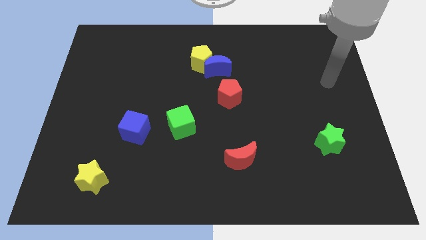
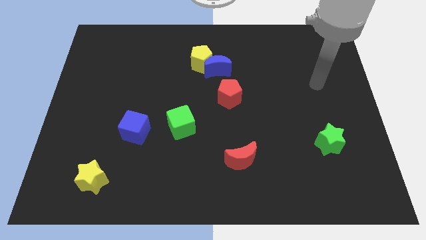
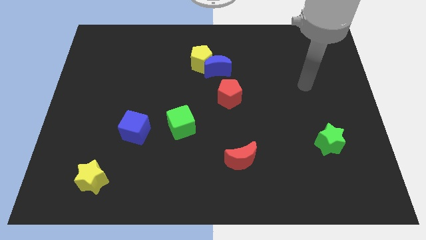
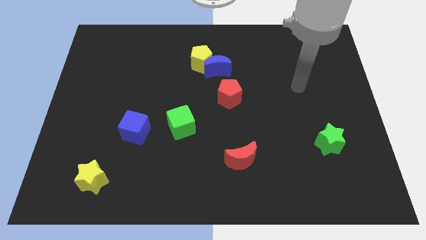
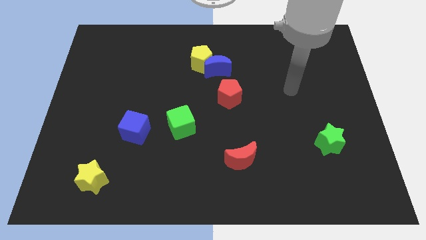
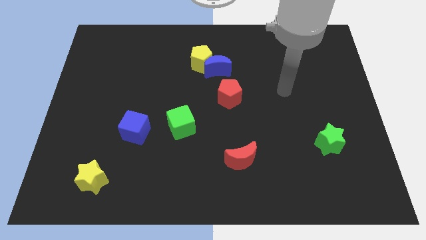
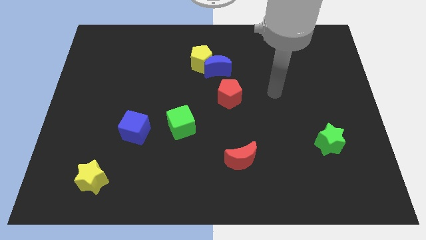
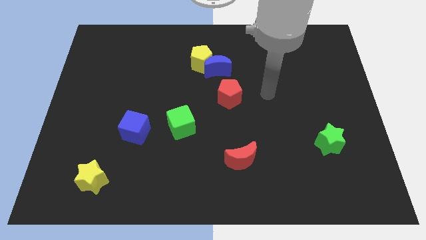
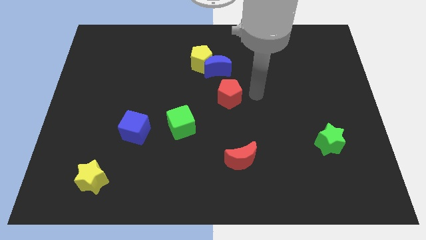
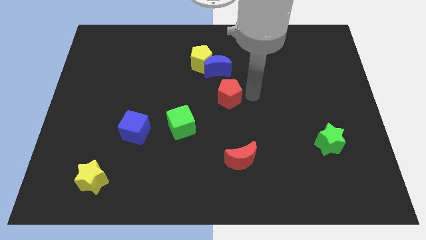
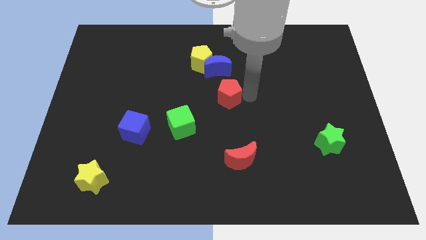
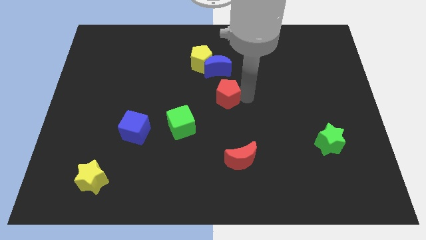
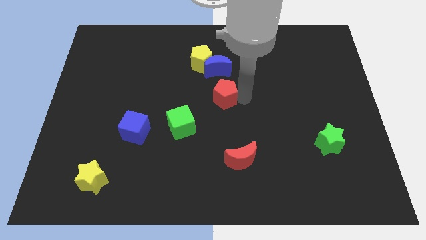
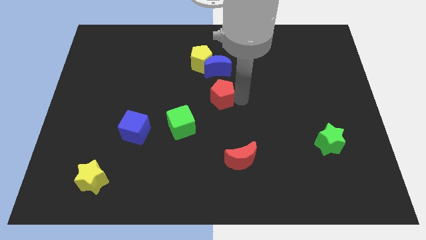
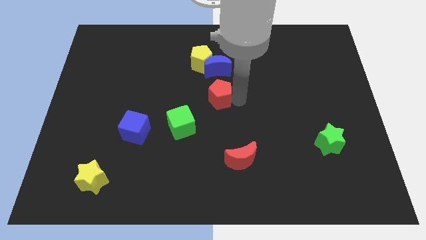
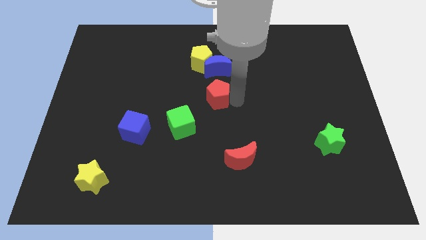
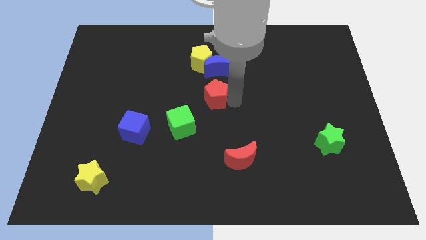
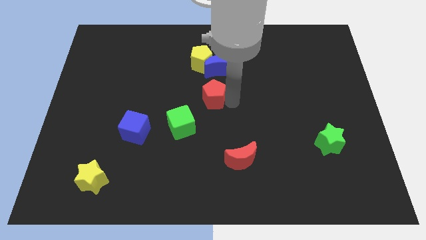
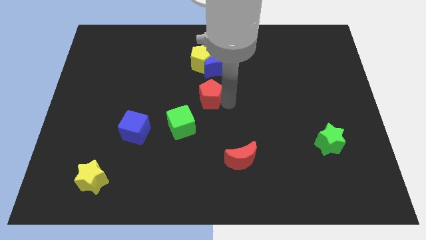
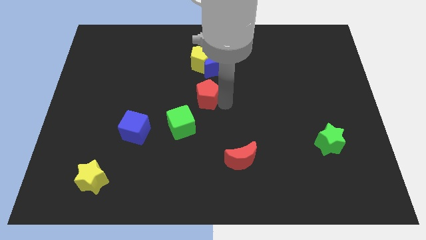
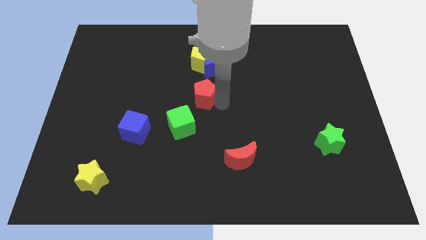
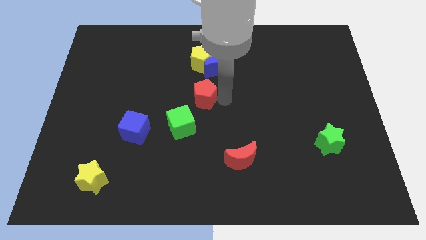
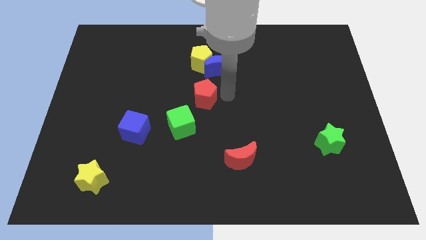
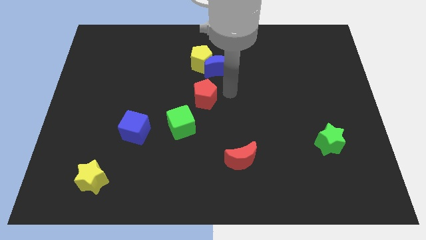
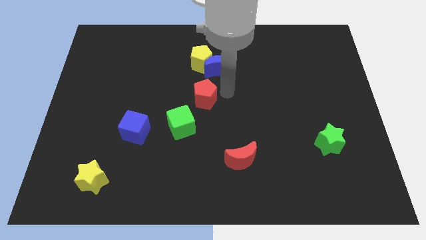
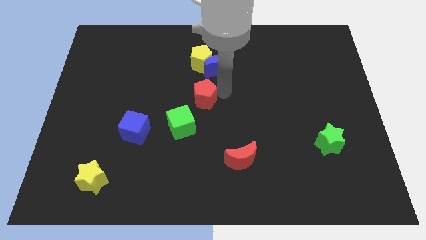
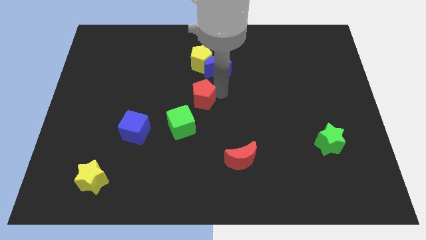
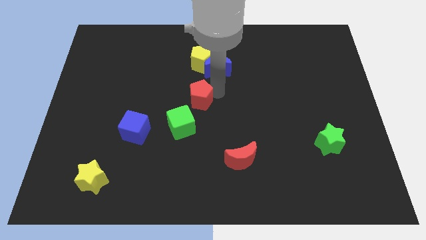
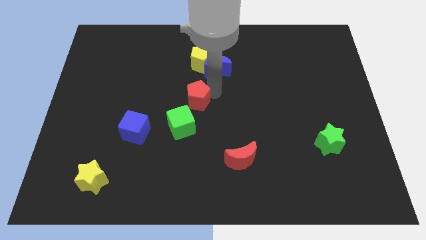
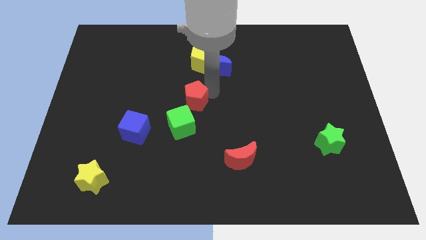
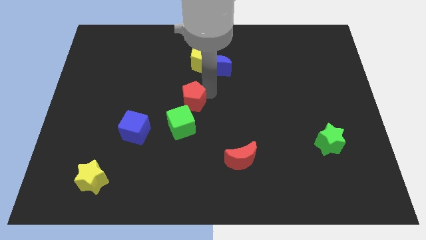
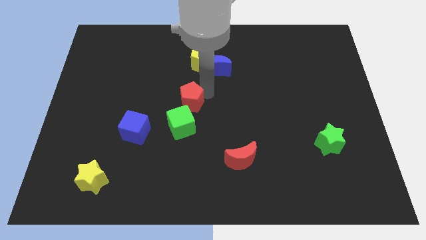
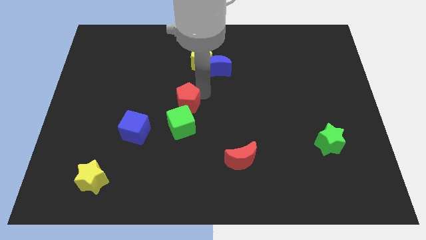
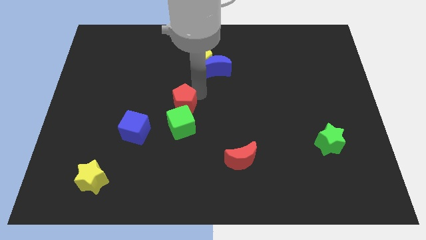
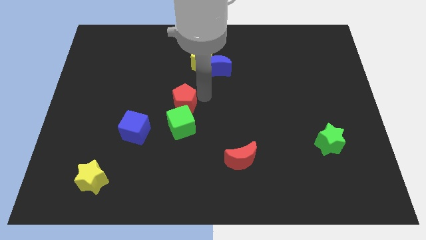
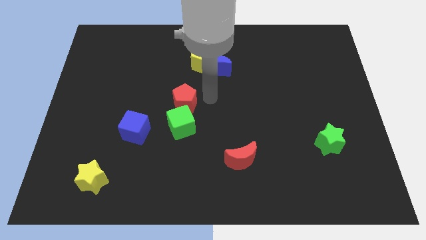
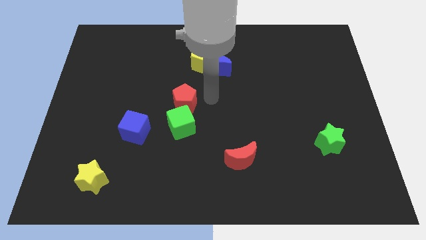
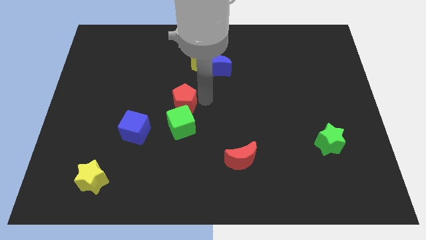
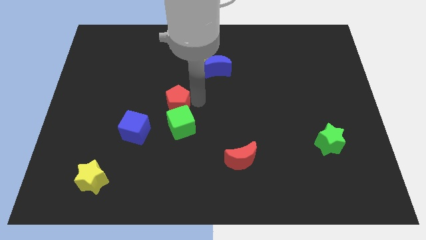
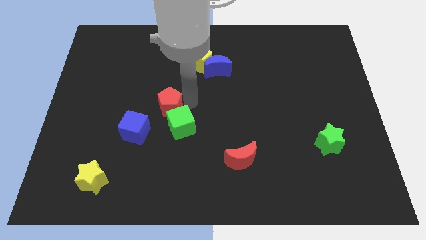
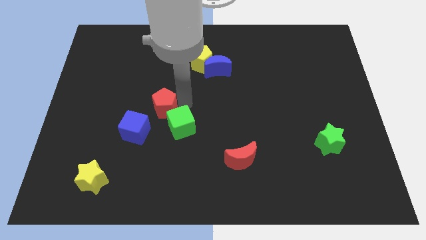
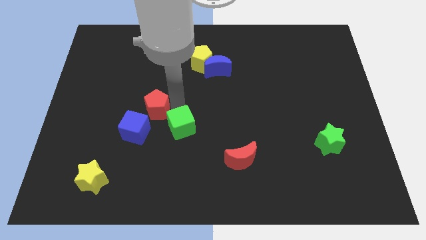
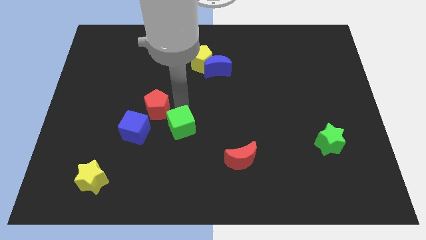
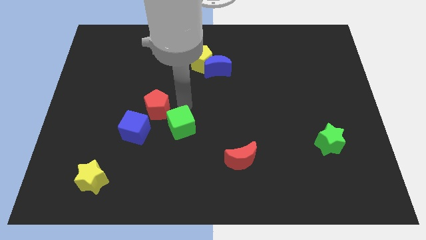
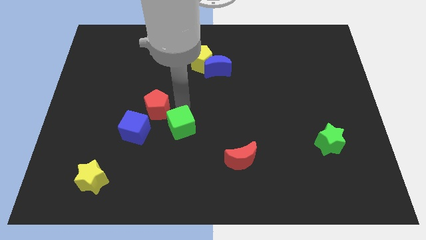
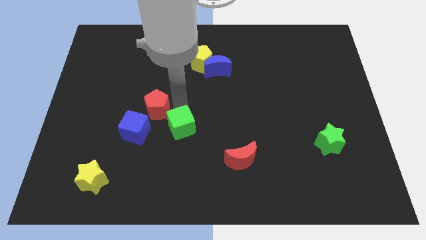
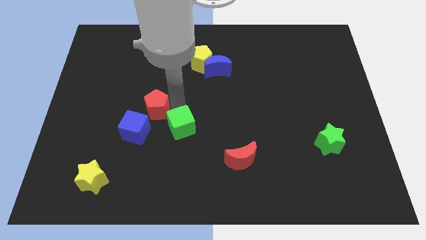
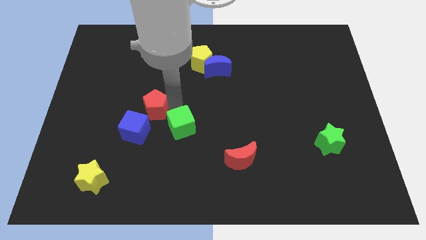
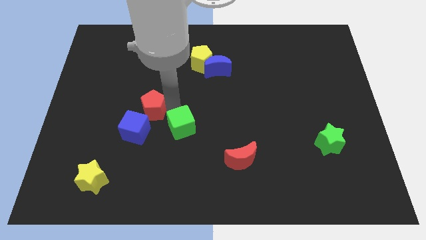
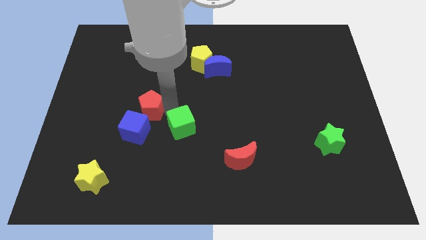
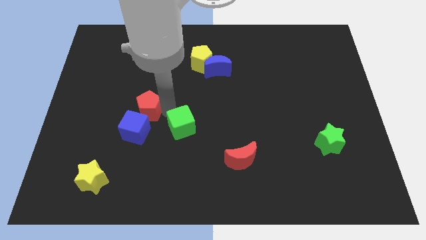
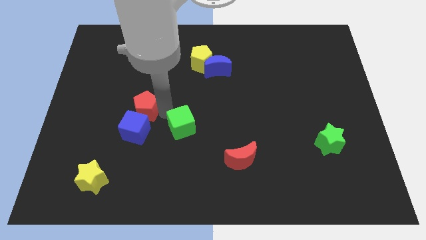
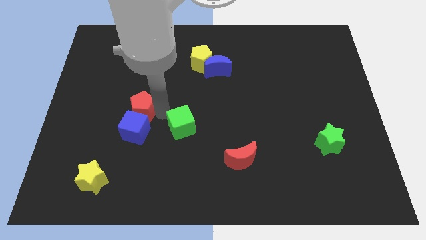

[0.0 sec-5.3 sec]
move the red pentagon to the top left of the blue cube

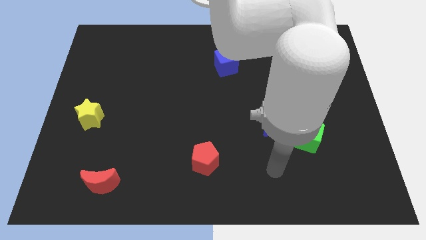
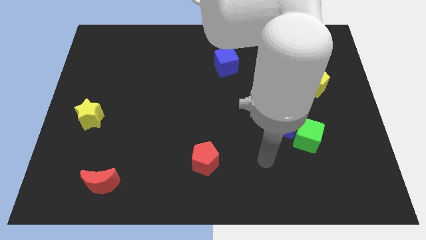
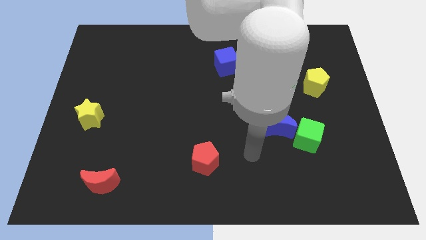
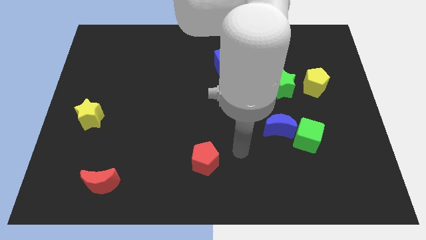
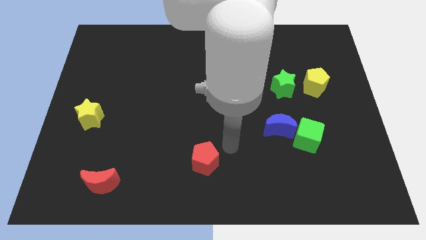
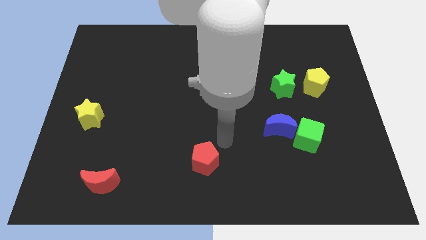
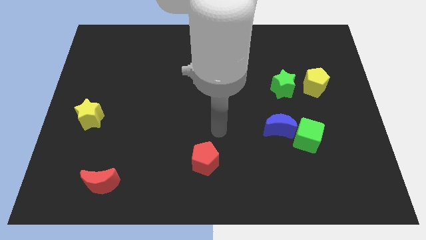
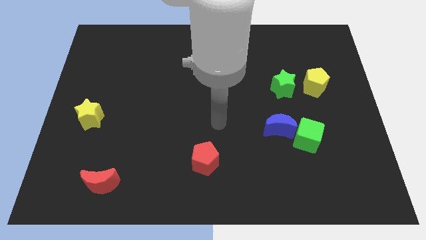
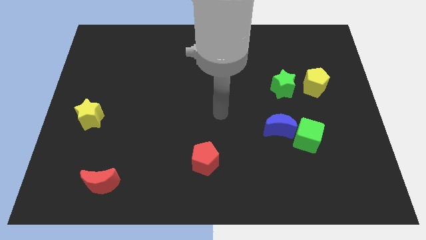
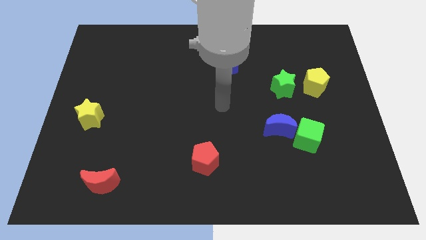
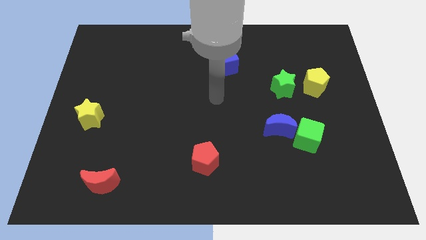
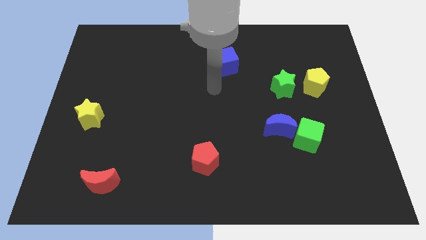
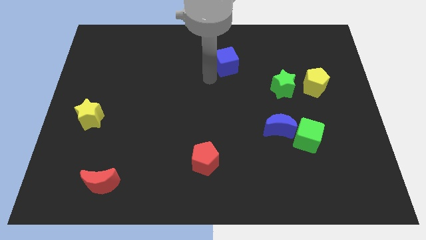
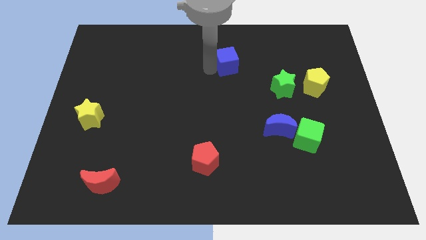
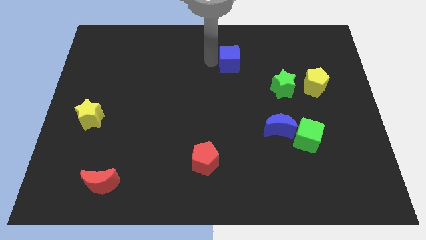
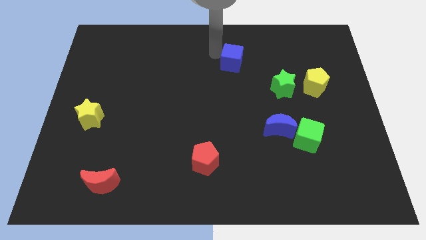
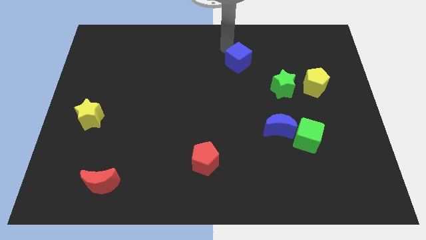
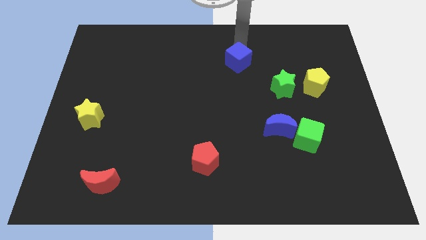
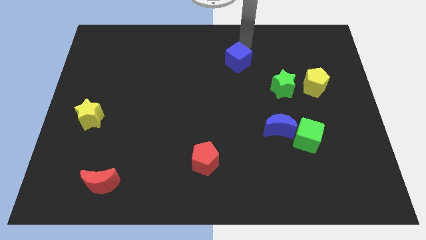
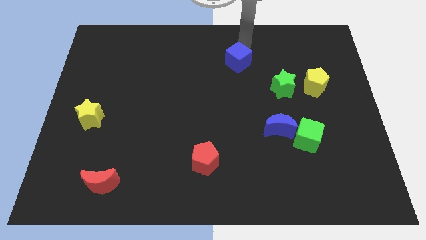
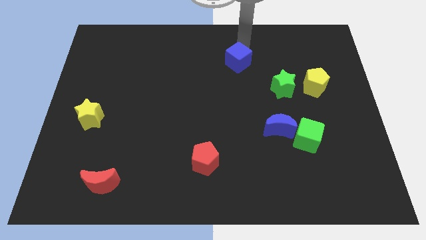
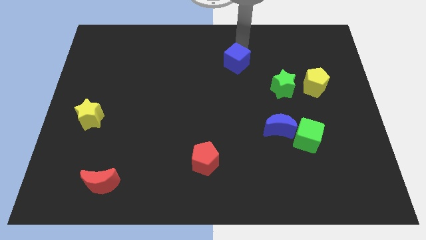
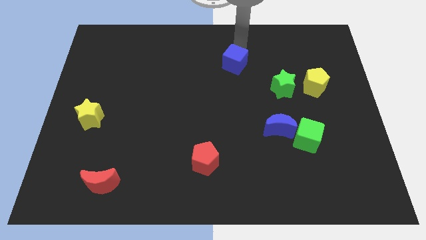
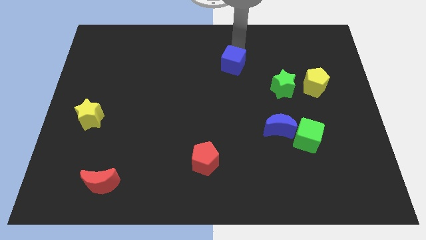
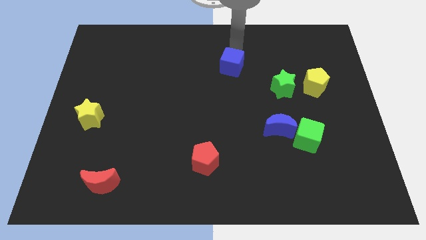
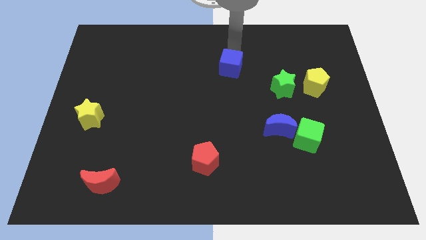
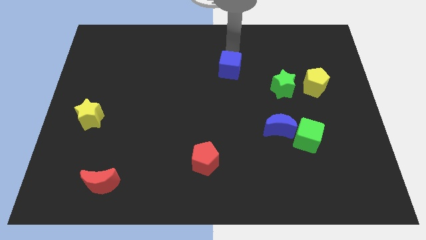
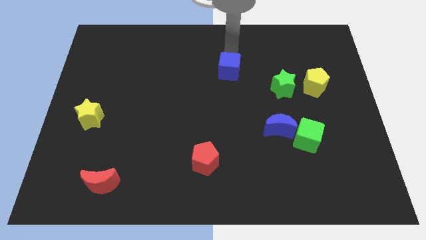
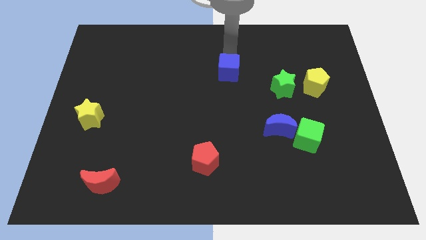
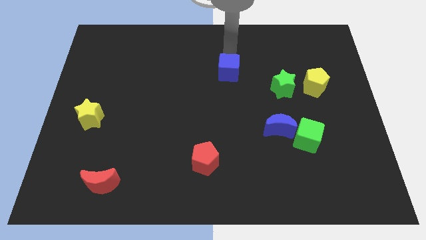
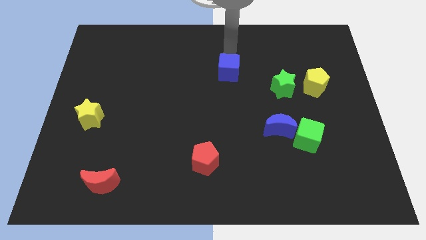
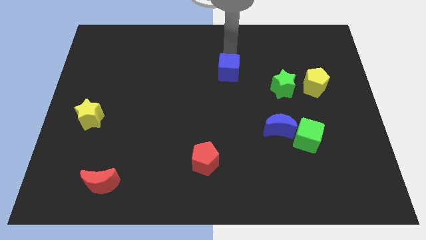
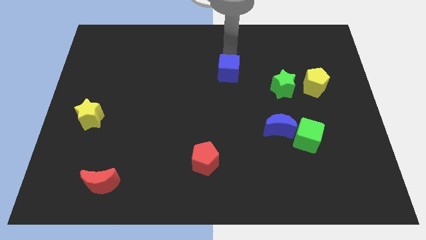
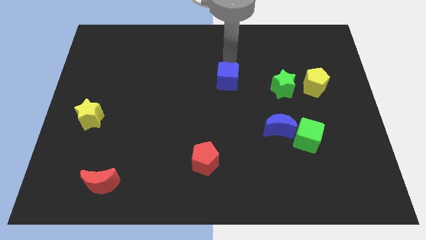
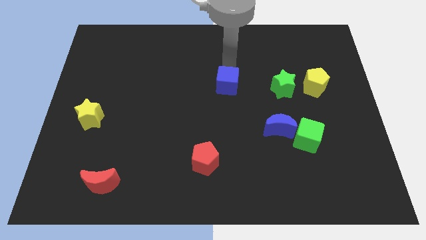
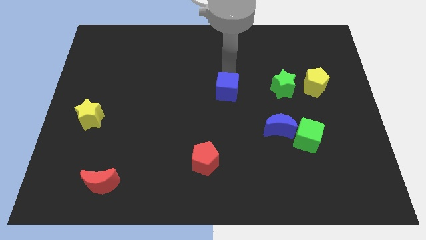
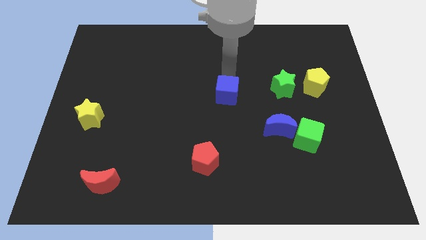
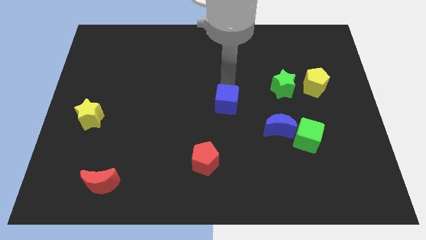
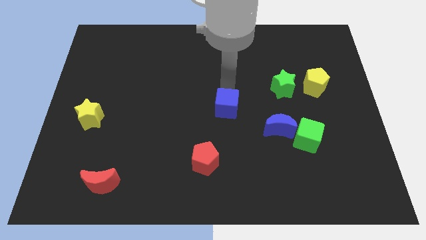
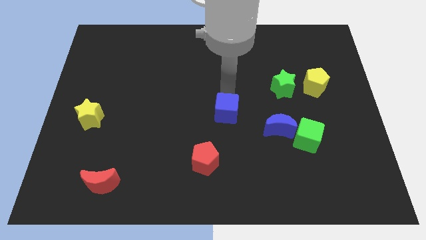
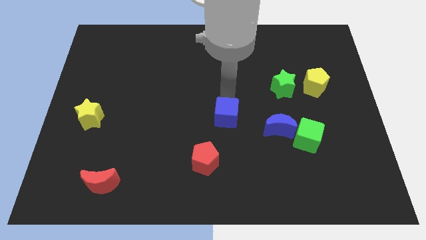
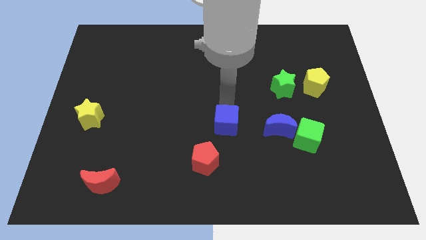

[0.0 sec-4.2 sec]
move the blue cube diagonally up and to the right of the red pentagon
